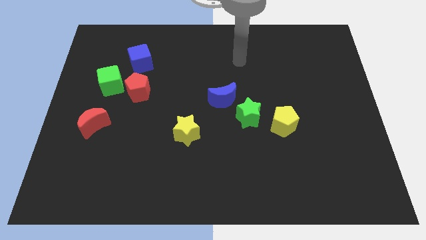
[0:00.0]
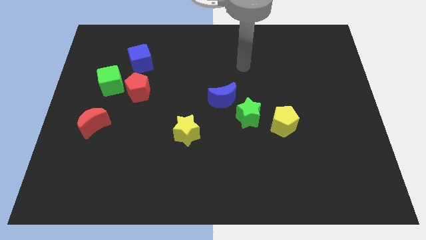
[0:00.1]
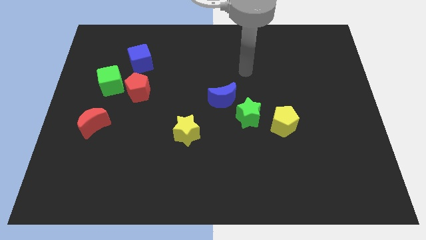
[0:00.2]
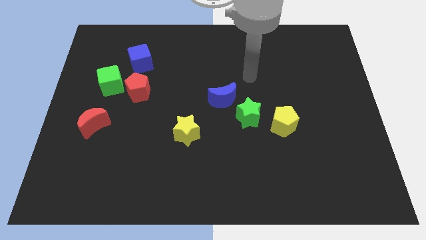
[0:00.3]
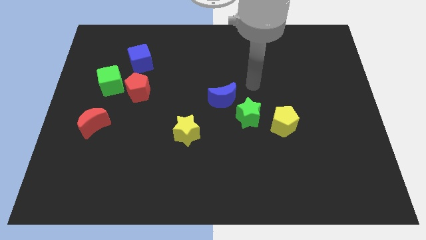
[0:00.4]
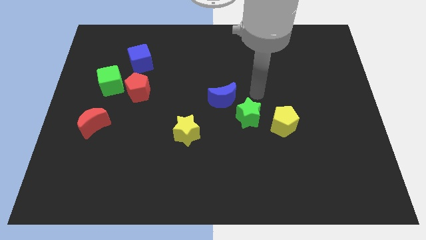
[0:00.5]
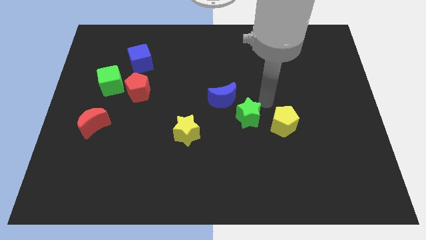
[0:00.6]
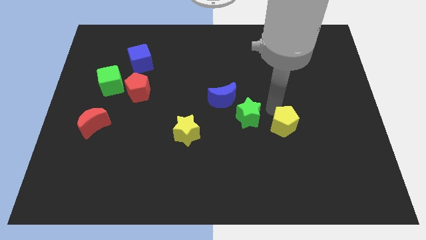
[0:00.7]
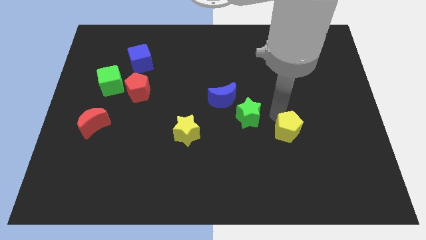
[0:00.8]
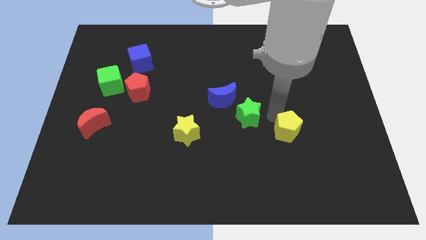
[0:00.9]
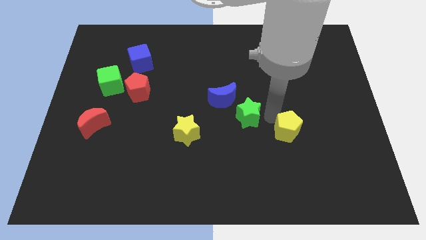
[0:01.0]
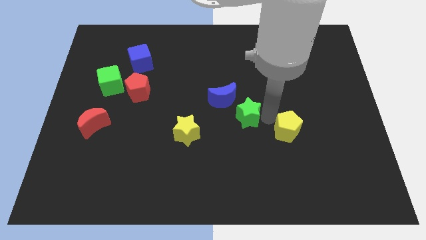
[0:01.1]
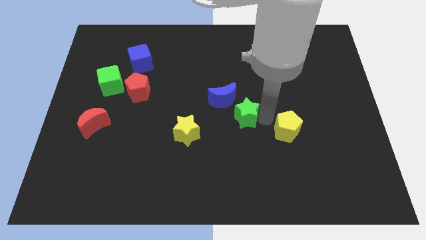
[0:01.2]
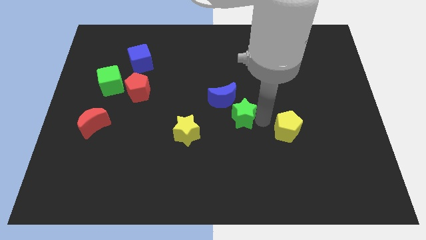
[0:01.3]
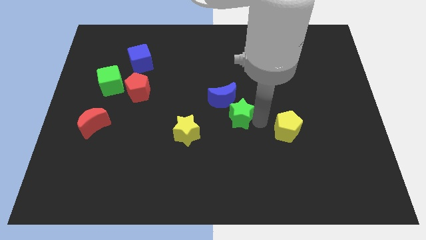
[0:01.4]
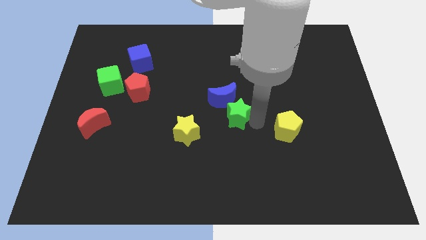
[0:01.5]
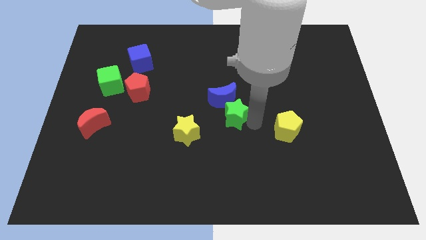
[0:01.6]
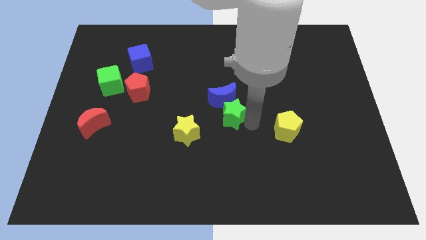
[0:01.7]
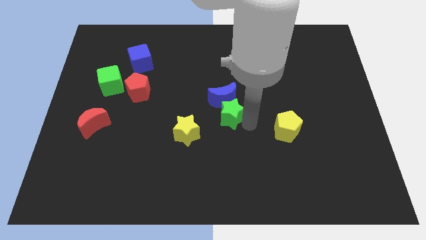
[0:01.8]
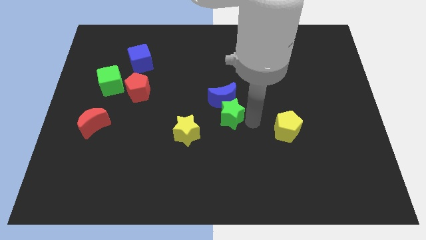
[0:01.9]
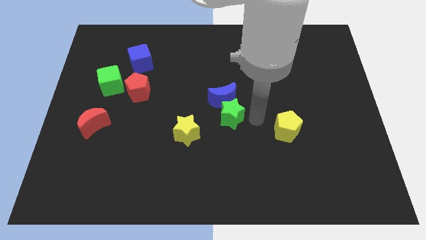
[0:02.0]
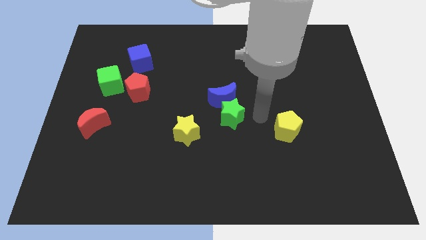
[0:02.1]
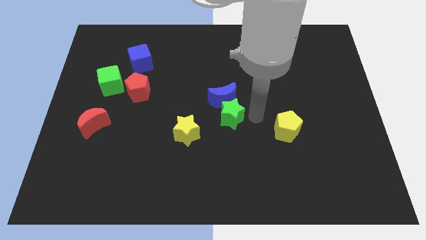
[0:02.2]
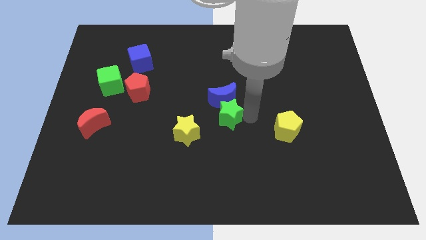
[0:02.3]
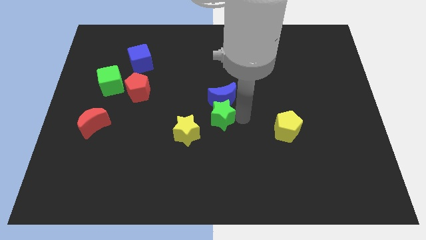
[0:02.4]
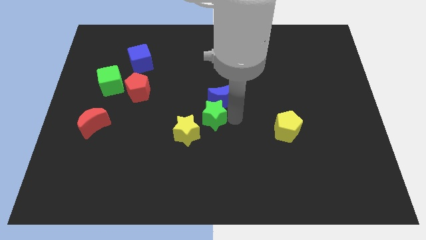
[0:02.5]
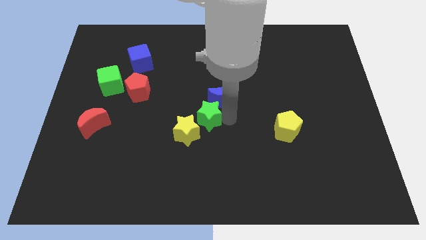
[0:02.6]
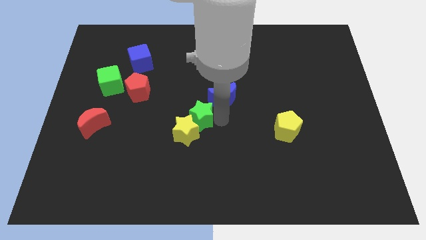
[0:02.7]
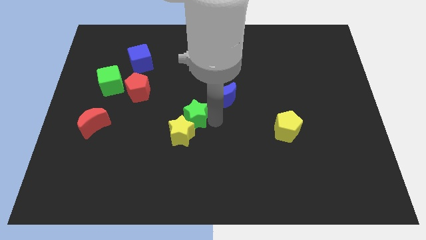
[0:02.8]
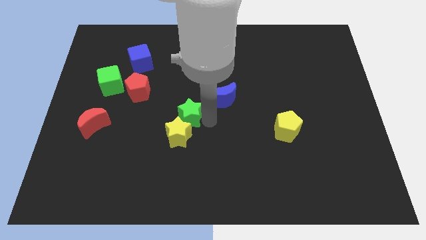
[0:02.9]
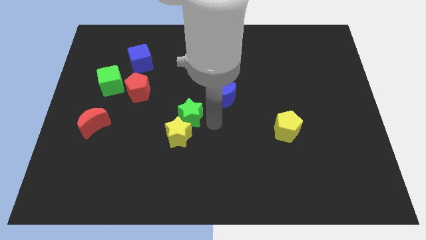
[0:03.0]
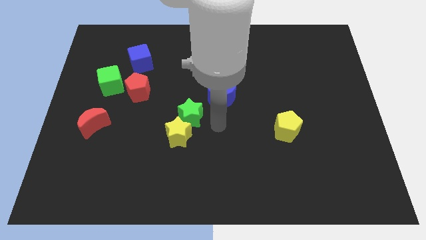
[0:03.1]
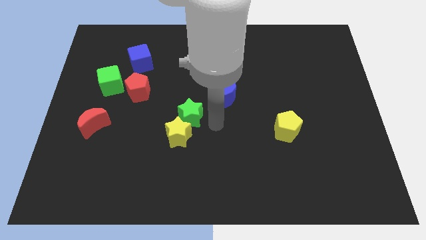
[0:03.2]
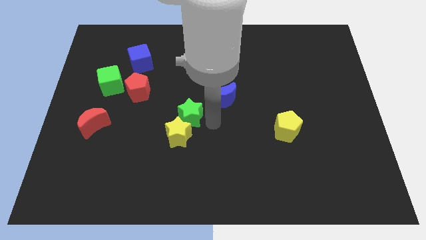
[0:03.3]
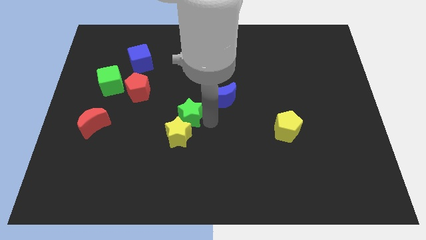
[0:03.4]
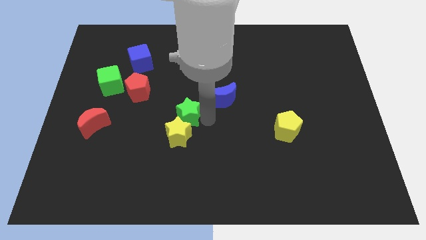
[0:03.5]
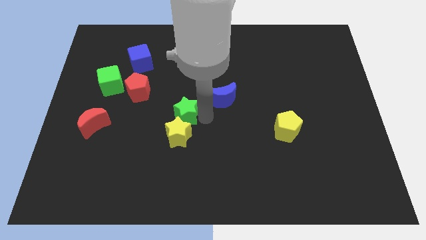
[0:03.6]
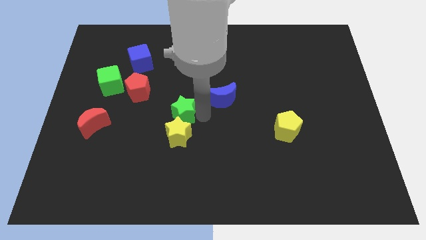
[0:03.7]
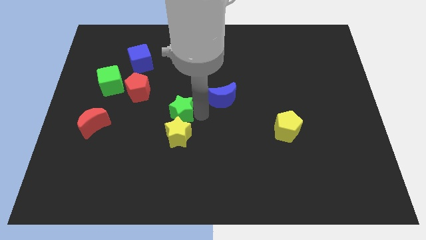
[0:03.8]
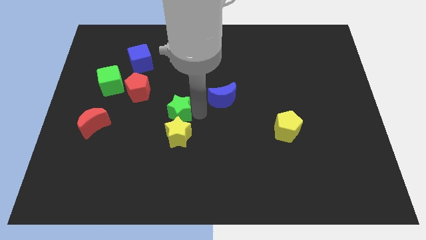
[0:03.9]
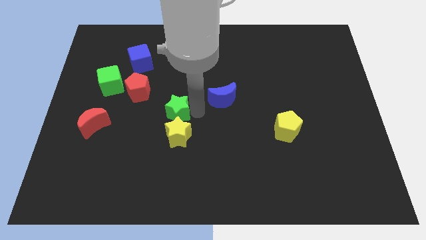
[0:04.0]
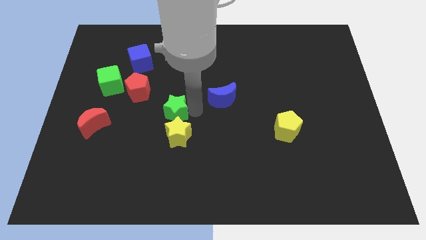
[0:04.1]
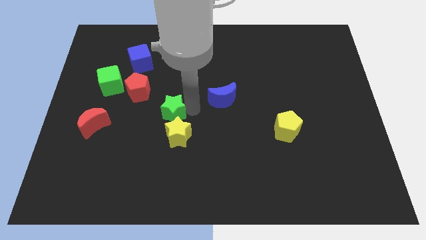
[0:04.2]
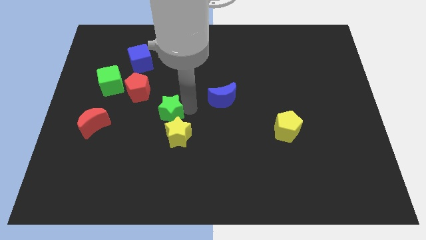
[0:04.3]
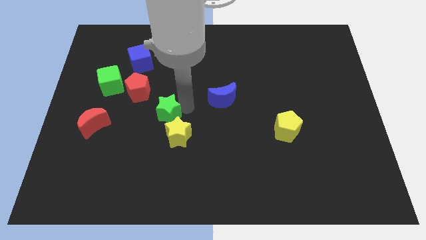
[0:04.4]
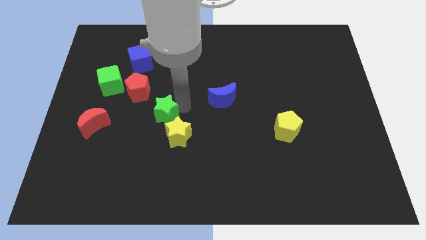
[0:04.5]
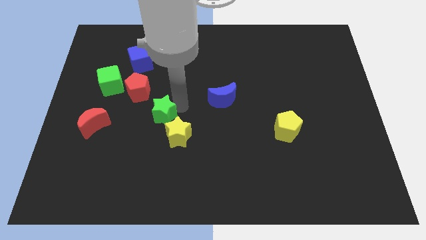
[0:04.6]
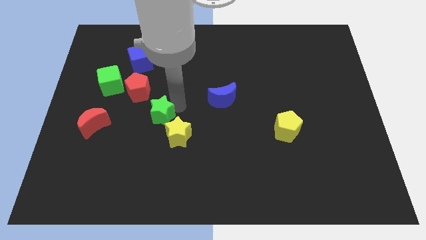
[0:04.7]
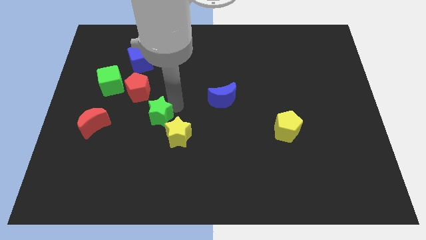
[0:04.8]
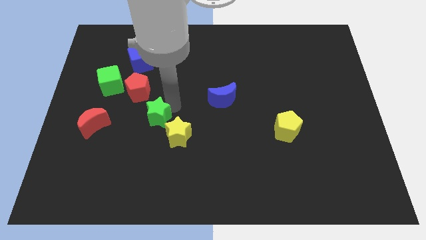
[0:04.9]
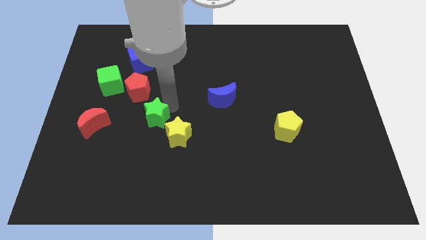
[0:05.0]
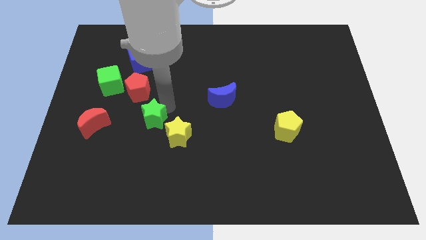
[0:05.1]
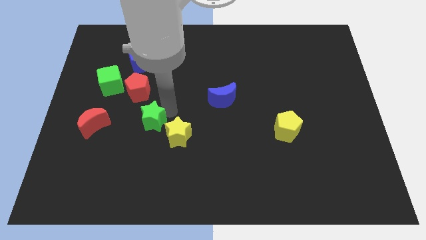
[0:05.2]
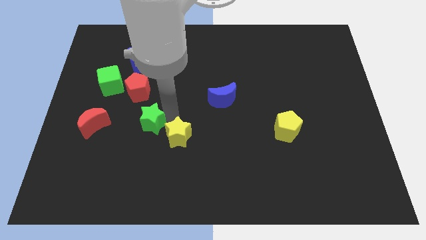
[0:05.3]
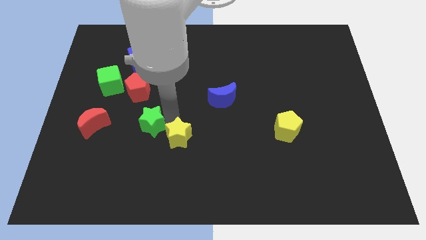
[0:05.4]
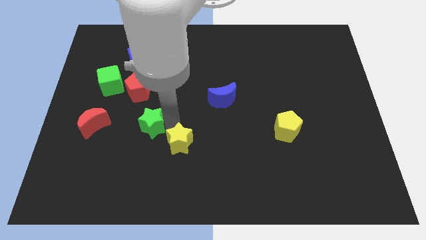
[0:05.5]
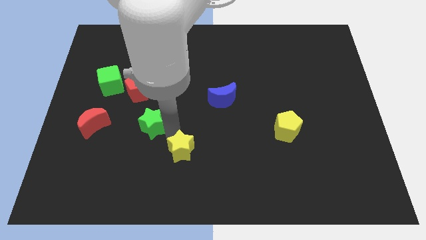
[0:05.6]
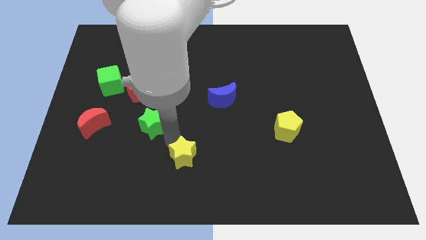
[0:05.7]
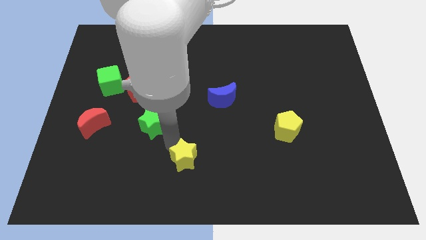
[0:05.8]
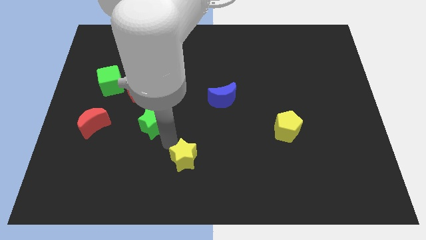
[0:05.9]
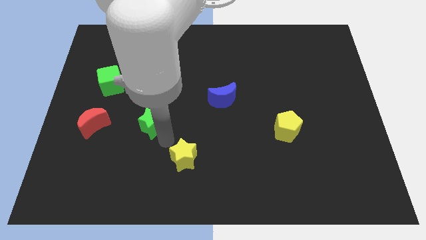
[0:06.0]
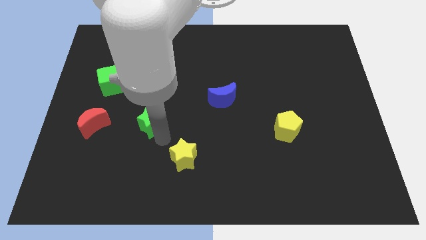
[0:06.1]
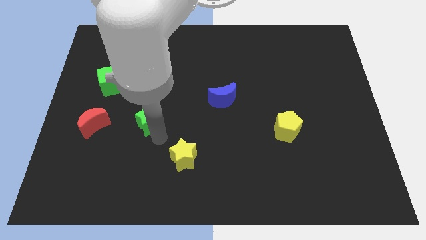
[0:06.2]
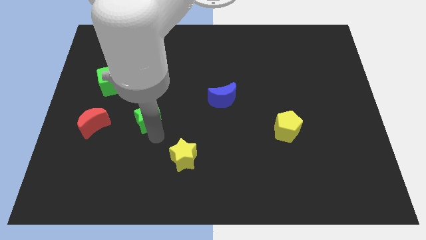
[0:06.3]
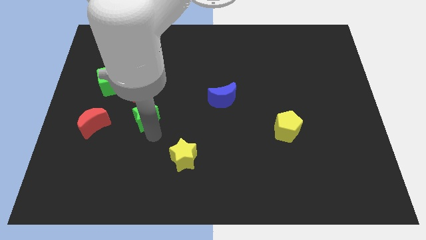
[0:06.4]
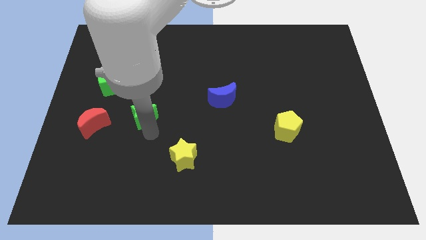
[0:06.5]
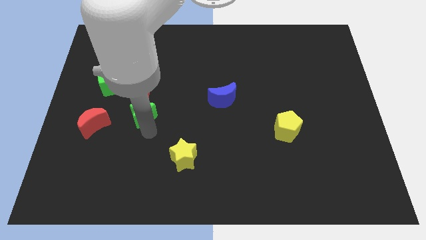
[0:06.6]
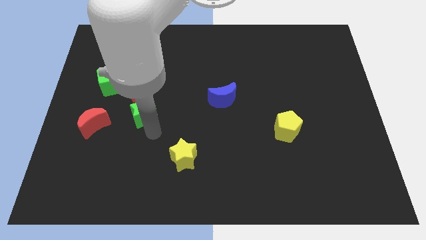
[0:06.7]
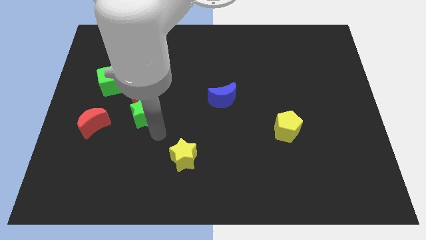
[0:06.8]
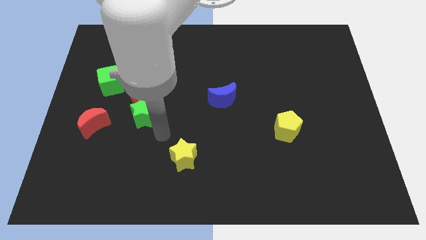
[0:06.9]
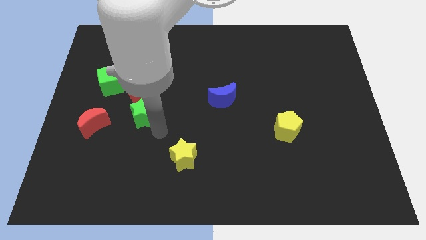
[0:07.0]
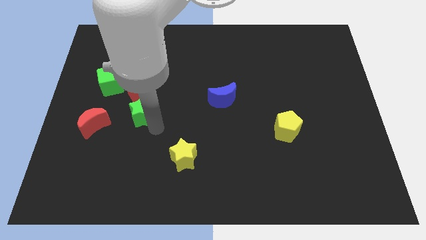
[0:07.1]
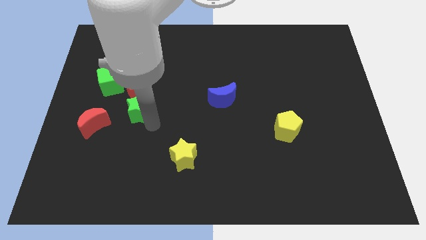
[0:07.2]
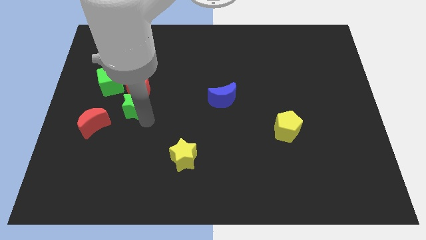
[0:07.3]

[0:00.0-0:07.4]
push the green star below the blue cube

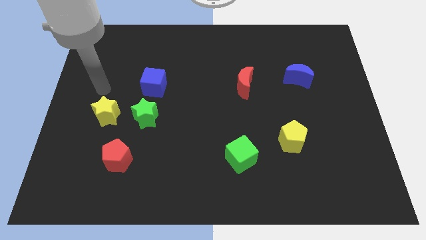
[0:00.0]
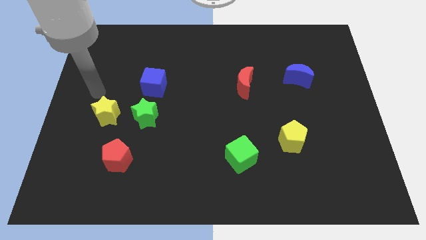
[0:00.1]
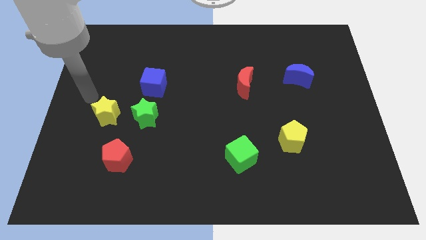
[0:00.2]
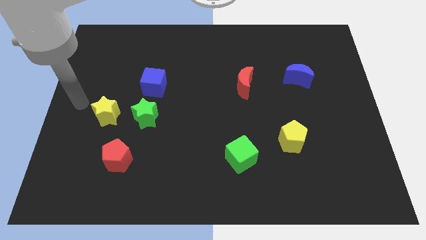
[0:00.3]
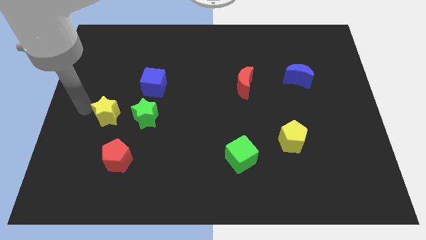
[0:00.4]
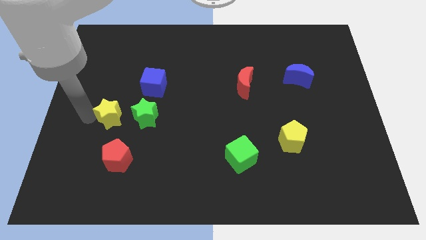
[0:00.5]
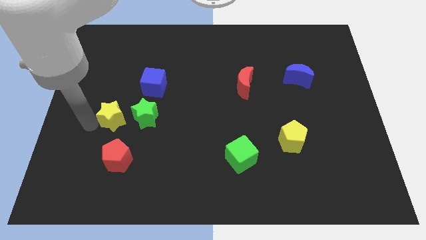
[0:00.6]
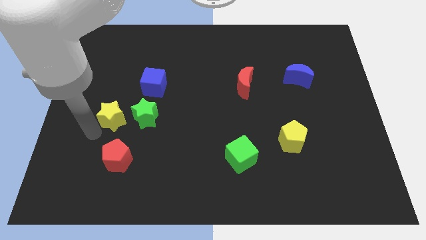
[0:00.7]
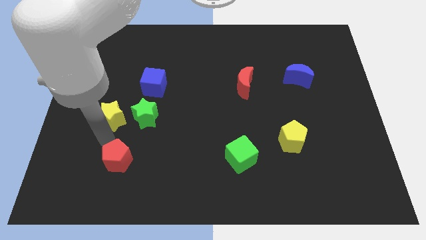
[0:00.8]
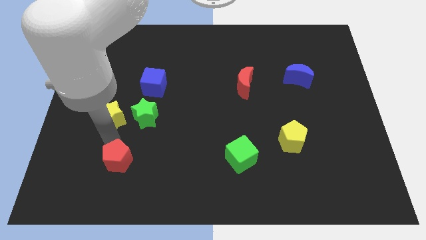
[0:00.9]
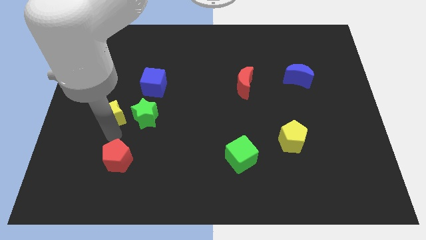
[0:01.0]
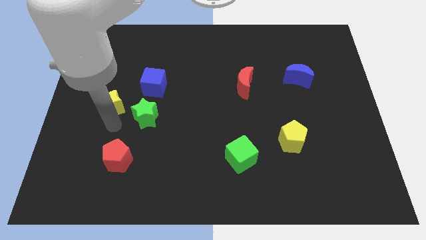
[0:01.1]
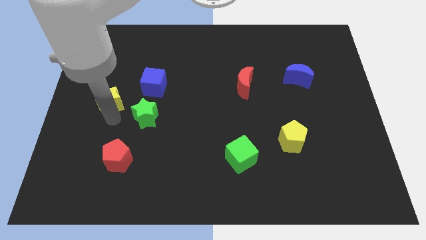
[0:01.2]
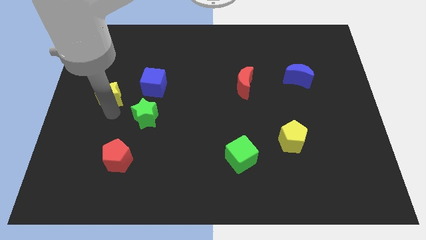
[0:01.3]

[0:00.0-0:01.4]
put the yellow star to the left of the blue cube
